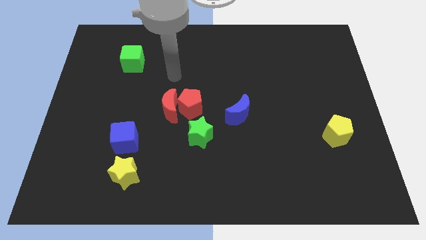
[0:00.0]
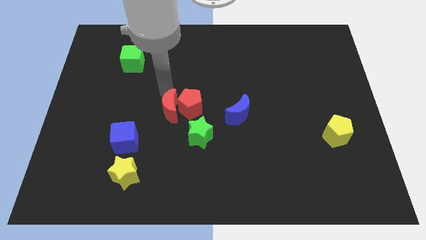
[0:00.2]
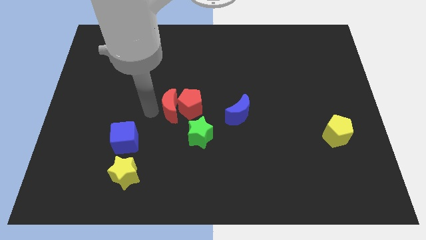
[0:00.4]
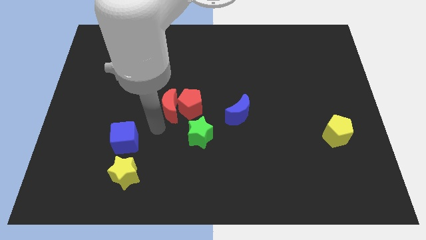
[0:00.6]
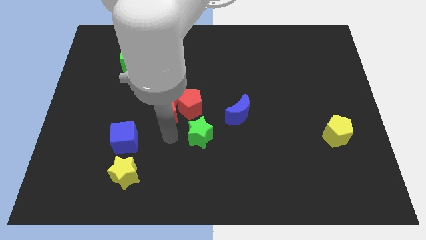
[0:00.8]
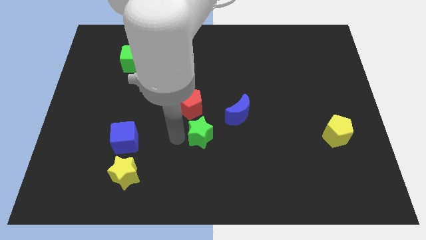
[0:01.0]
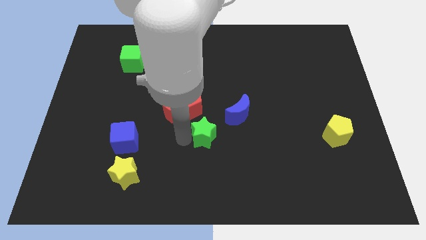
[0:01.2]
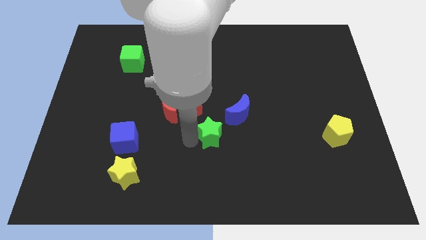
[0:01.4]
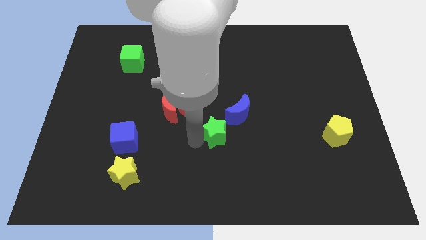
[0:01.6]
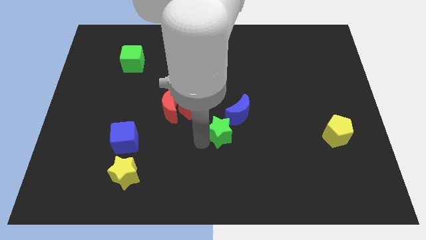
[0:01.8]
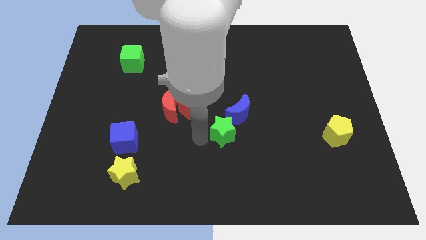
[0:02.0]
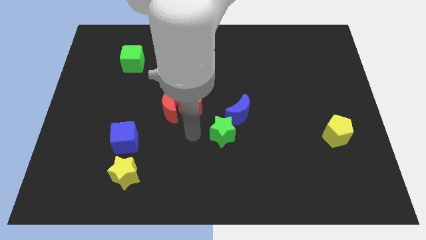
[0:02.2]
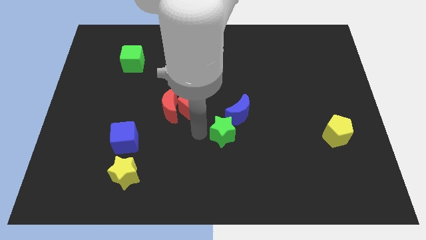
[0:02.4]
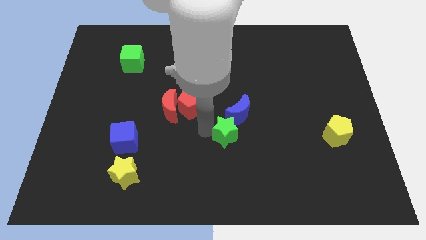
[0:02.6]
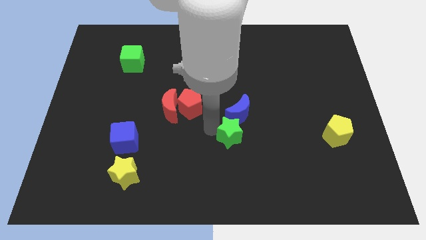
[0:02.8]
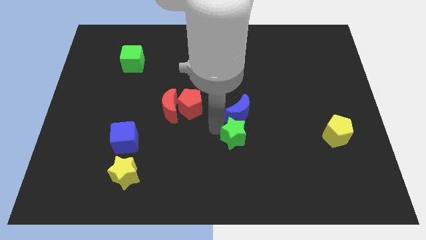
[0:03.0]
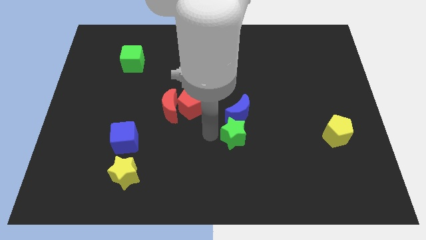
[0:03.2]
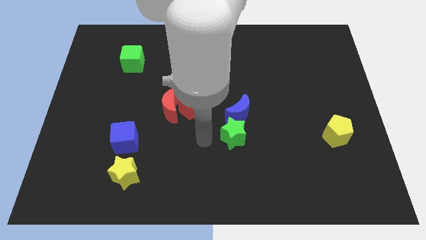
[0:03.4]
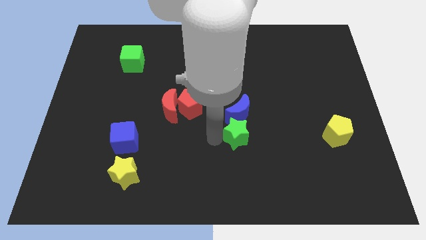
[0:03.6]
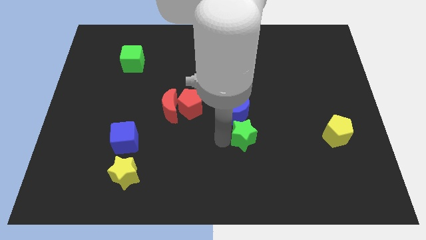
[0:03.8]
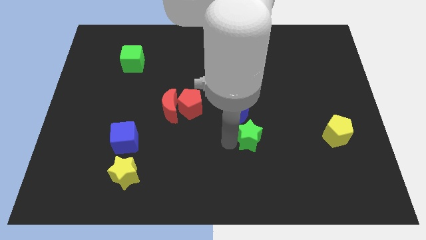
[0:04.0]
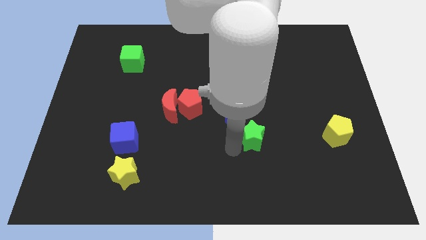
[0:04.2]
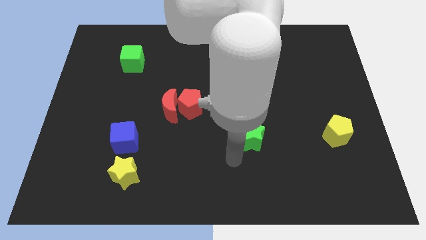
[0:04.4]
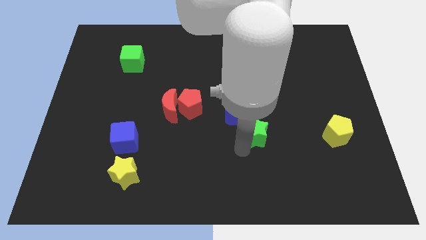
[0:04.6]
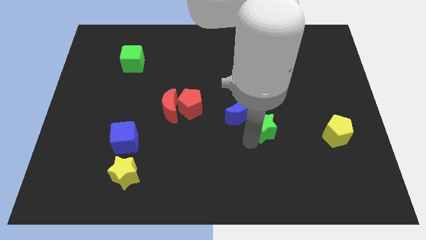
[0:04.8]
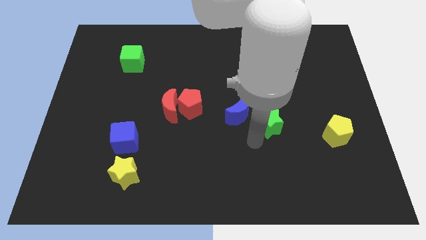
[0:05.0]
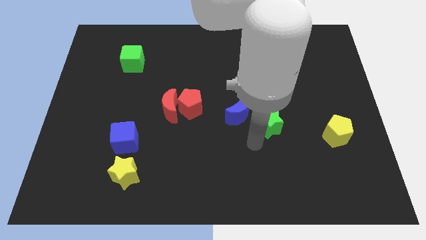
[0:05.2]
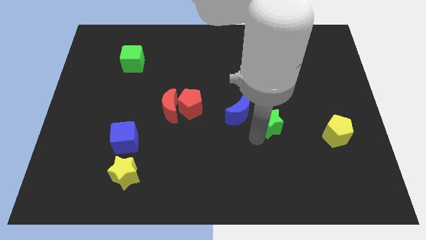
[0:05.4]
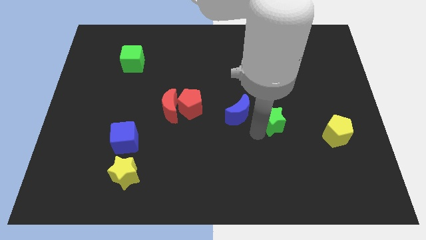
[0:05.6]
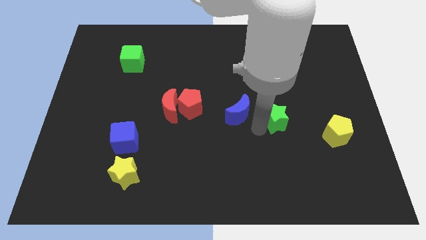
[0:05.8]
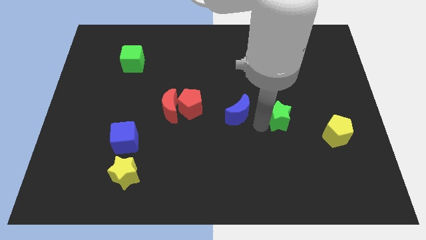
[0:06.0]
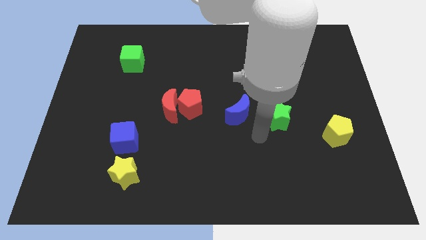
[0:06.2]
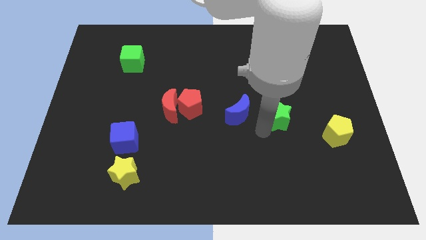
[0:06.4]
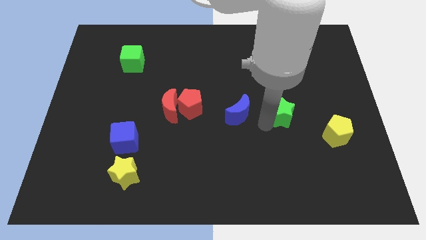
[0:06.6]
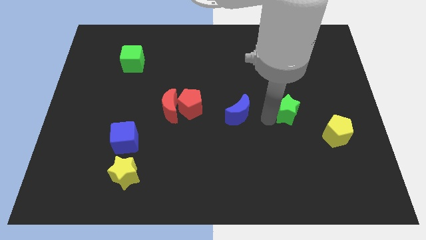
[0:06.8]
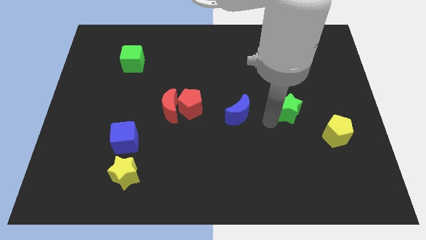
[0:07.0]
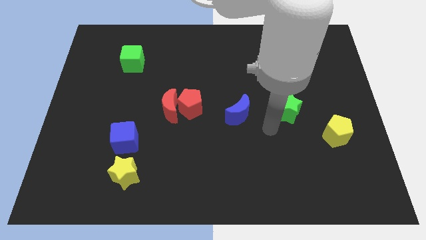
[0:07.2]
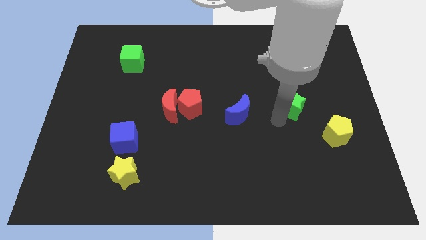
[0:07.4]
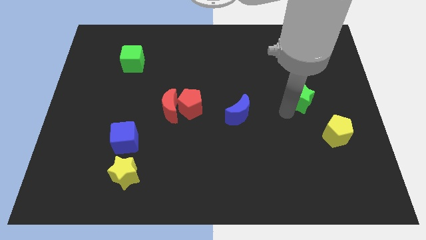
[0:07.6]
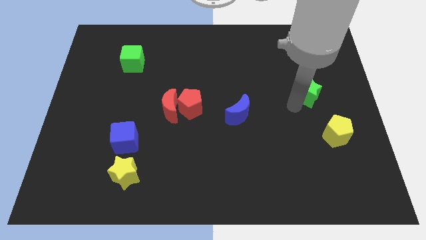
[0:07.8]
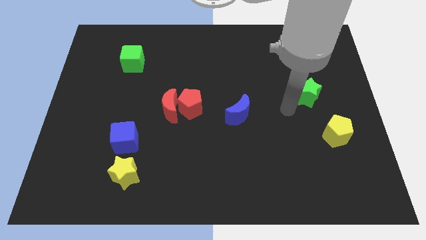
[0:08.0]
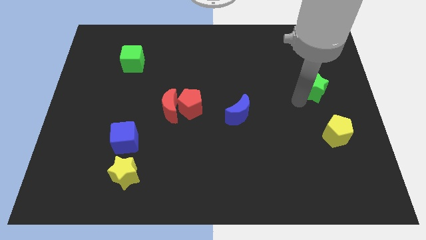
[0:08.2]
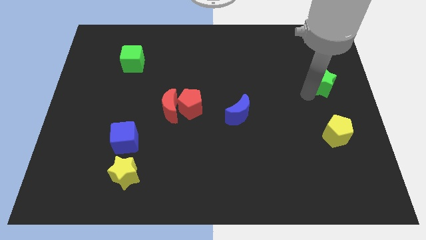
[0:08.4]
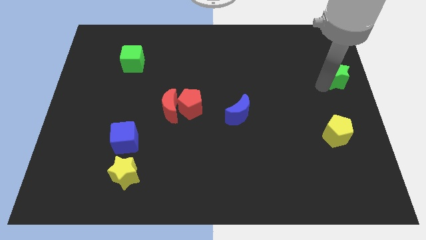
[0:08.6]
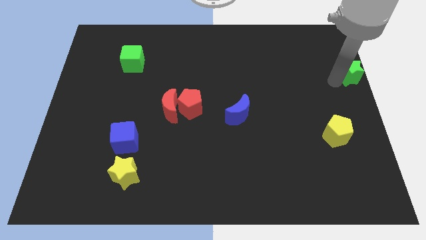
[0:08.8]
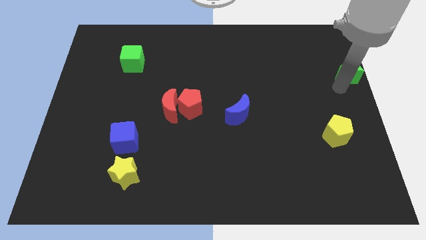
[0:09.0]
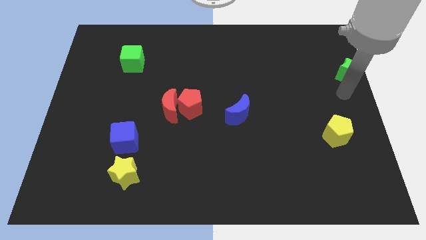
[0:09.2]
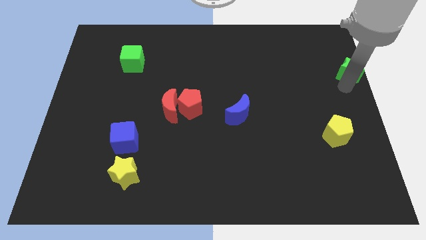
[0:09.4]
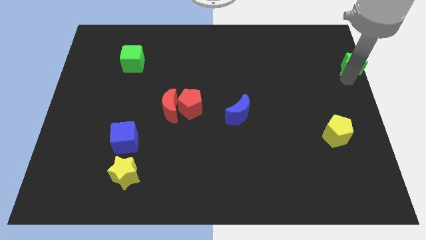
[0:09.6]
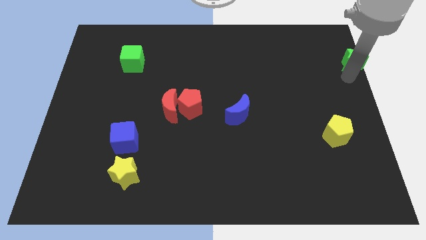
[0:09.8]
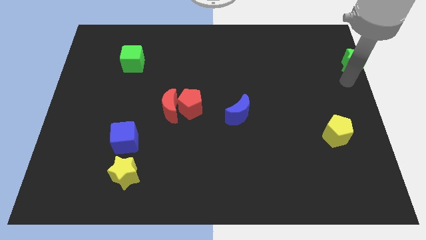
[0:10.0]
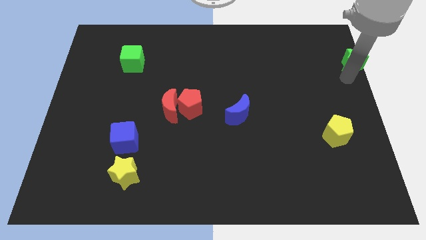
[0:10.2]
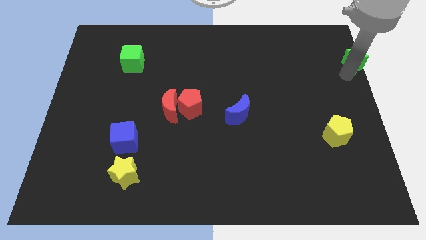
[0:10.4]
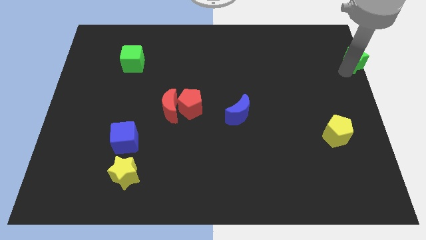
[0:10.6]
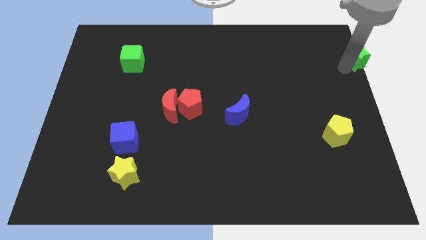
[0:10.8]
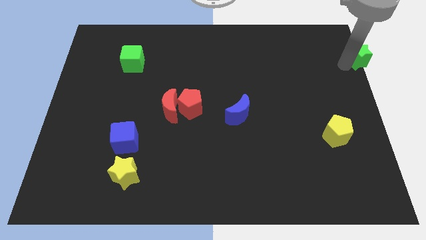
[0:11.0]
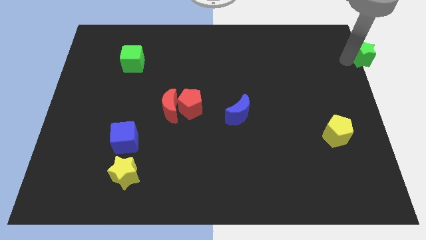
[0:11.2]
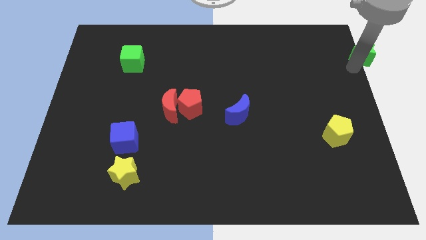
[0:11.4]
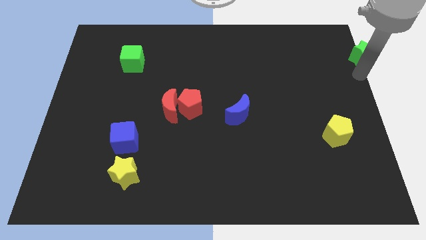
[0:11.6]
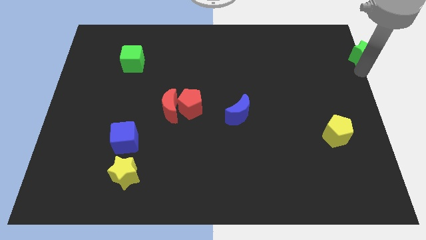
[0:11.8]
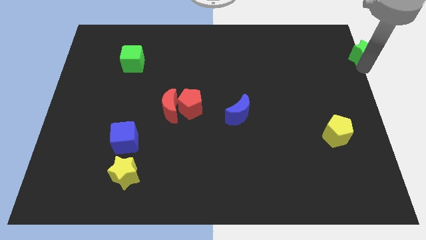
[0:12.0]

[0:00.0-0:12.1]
put the green star to the top right of the board
